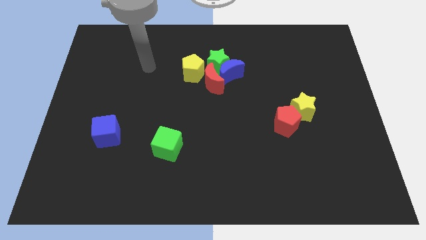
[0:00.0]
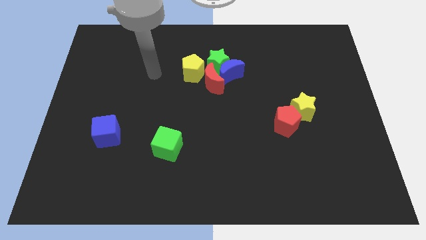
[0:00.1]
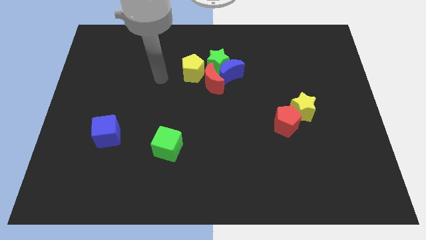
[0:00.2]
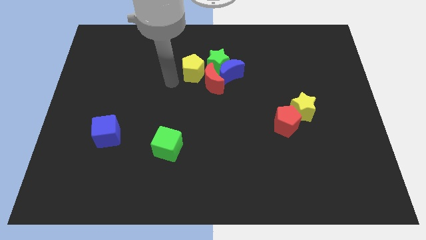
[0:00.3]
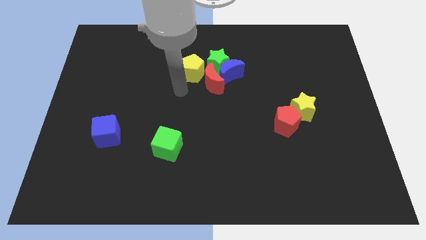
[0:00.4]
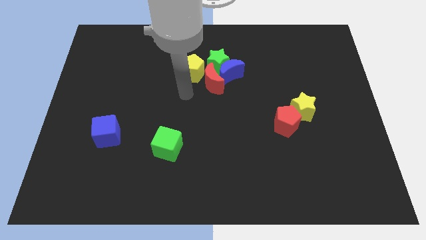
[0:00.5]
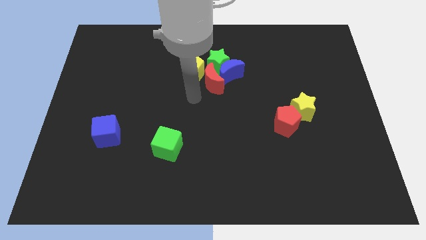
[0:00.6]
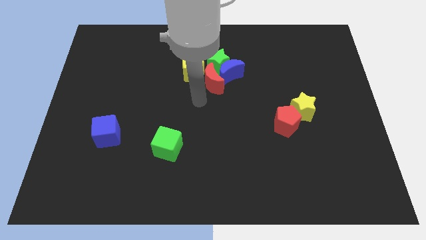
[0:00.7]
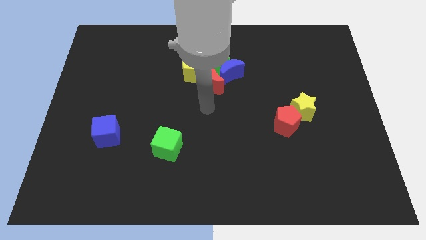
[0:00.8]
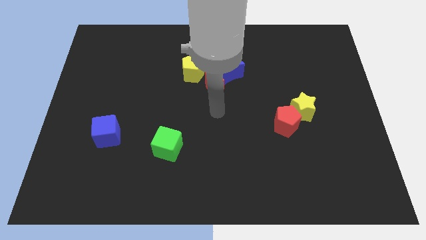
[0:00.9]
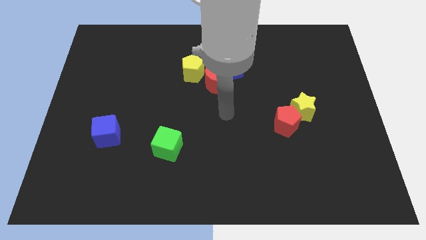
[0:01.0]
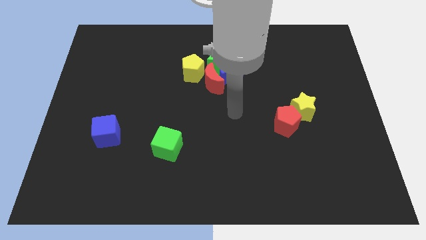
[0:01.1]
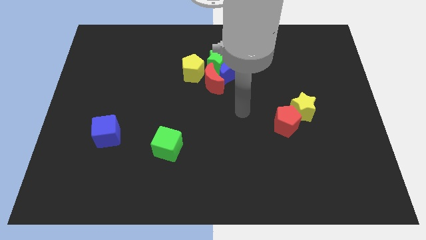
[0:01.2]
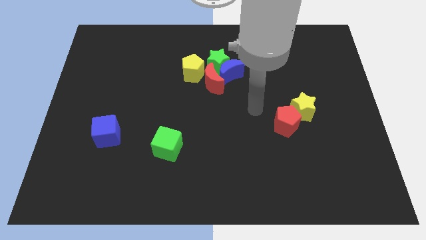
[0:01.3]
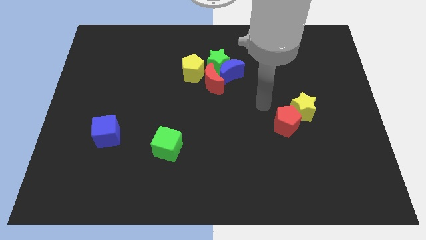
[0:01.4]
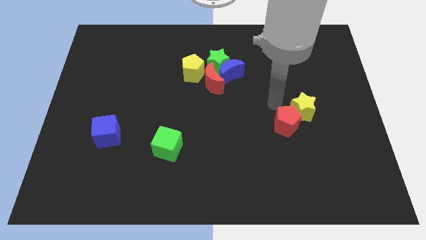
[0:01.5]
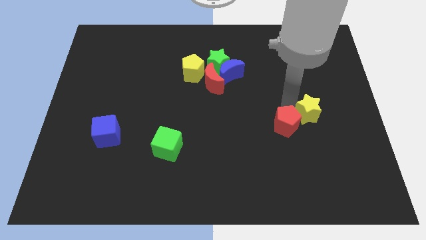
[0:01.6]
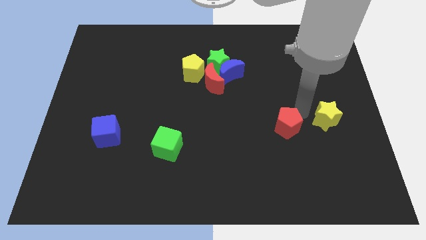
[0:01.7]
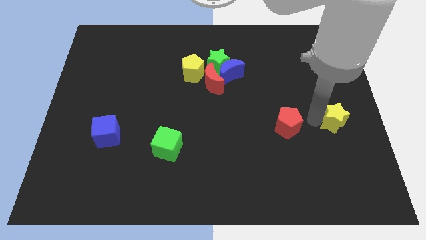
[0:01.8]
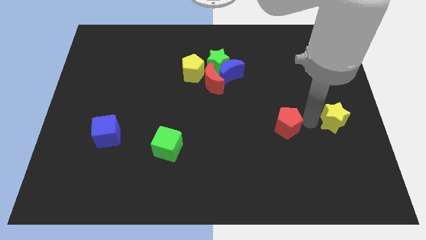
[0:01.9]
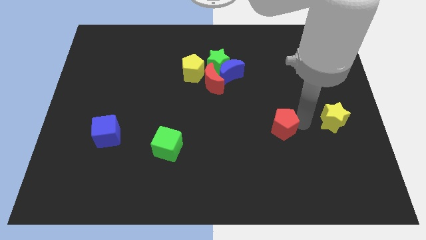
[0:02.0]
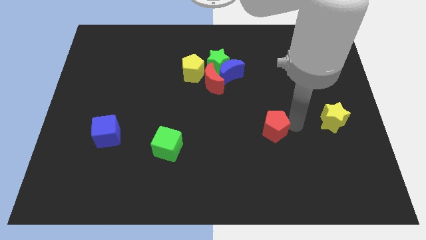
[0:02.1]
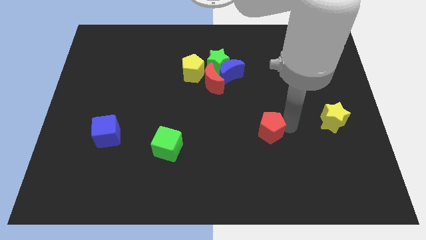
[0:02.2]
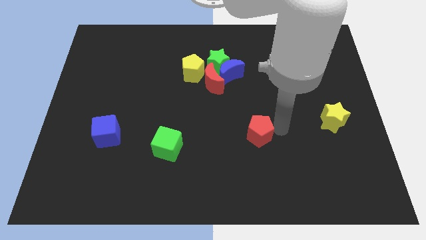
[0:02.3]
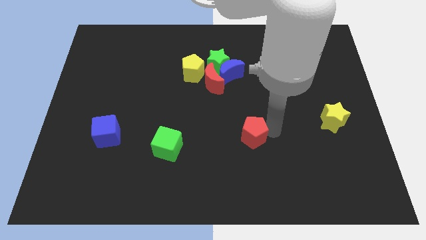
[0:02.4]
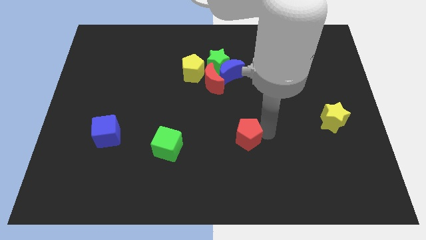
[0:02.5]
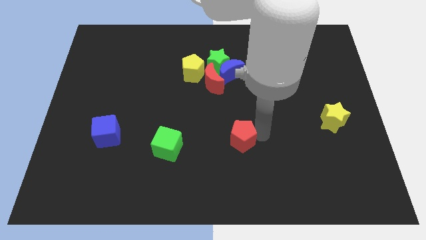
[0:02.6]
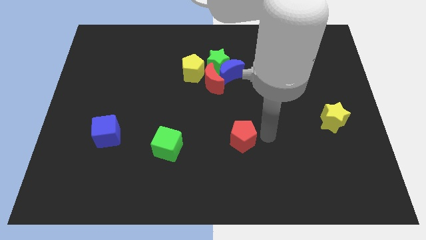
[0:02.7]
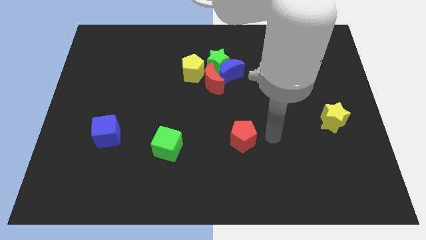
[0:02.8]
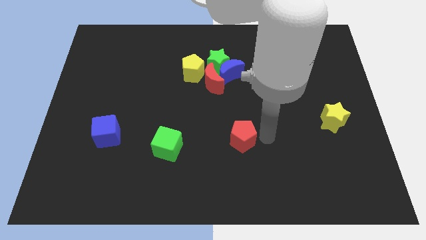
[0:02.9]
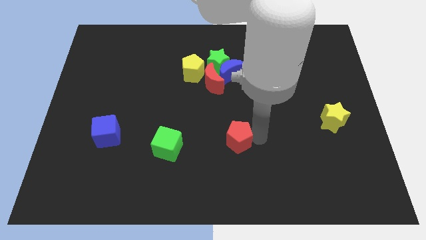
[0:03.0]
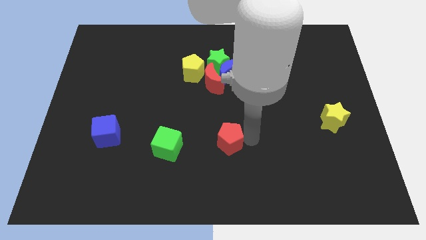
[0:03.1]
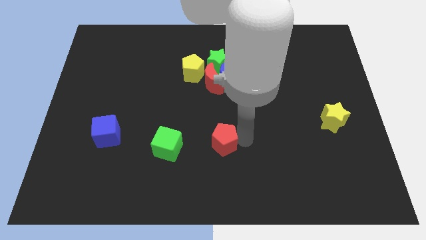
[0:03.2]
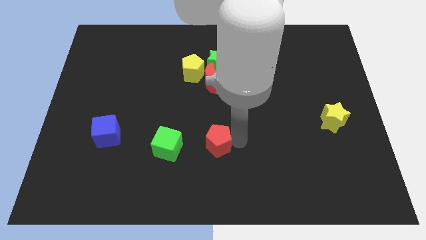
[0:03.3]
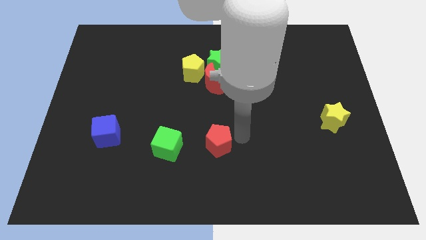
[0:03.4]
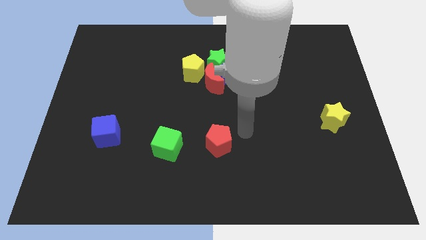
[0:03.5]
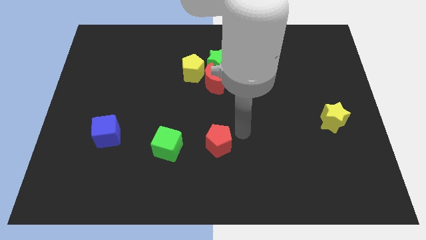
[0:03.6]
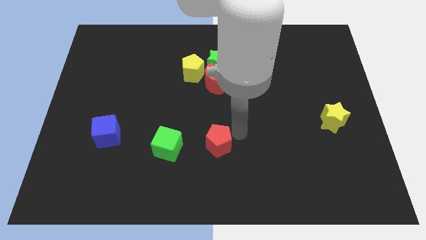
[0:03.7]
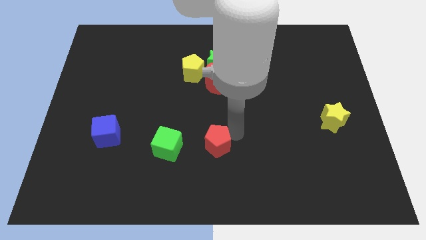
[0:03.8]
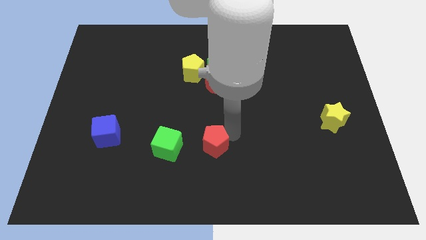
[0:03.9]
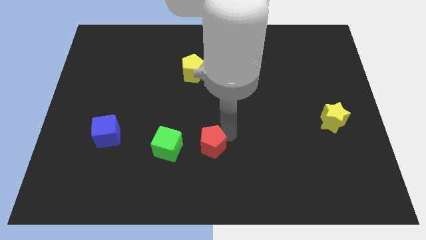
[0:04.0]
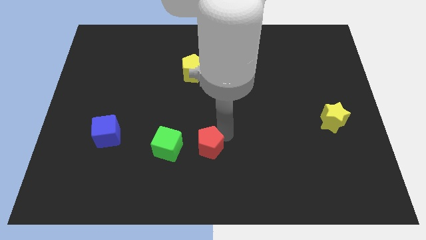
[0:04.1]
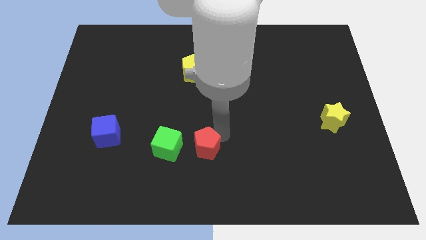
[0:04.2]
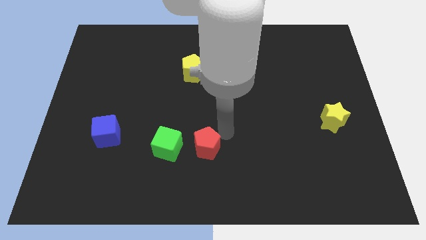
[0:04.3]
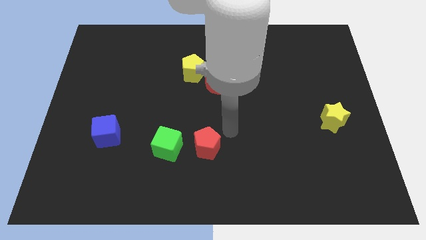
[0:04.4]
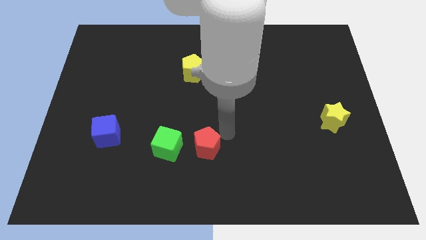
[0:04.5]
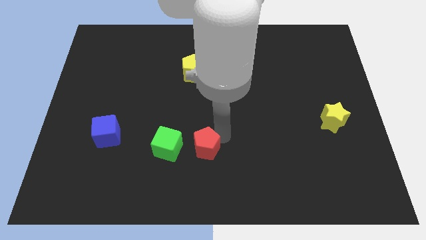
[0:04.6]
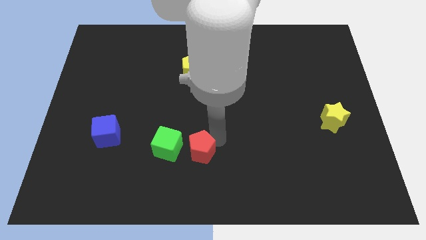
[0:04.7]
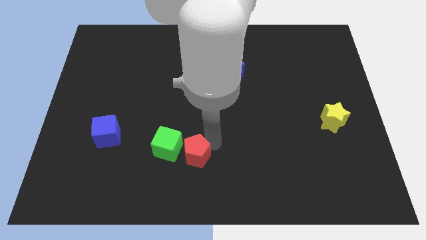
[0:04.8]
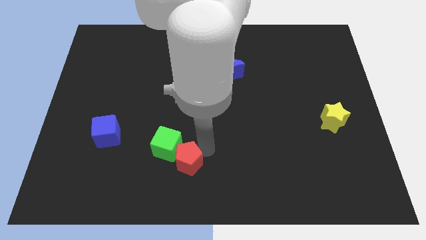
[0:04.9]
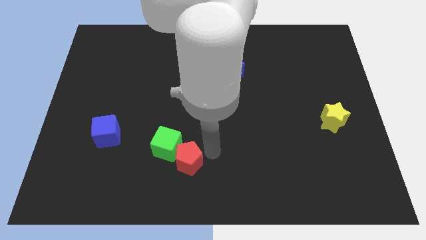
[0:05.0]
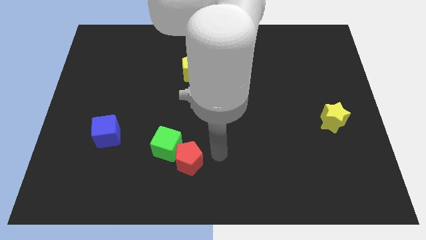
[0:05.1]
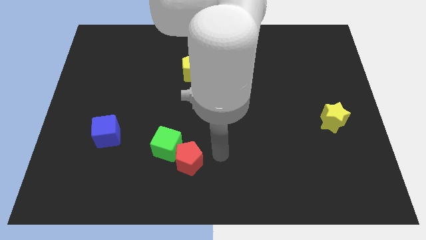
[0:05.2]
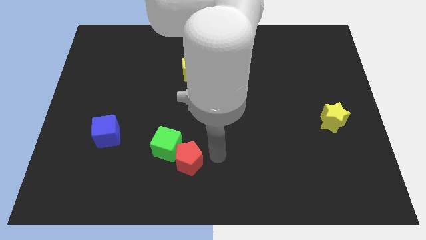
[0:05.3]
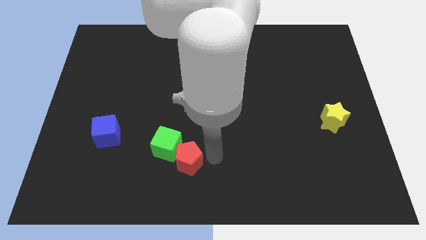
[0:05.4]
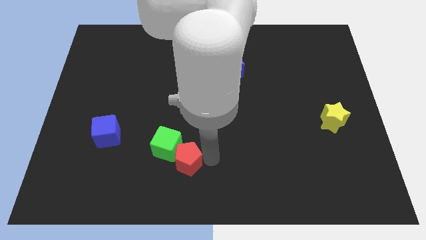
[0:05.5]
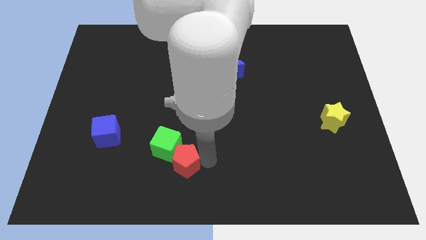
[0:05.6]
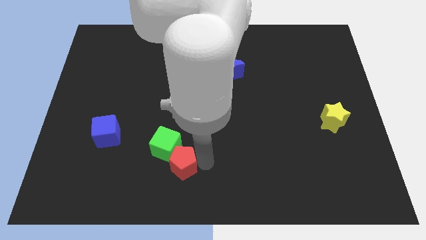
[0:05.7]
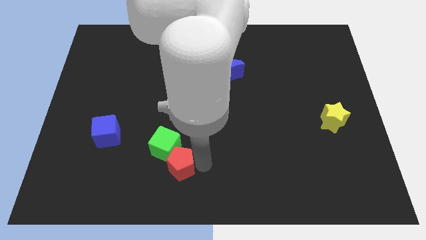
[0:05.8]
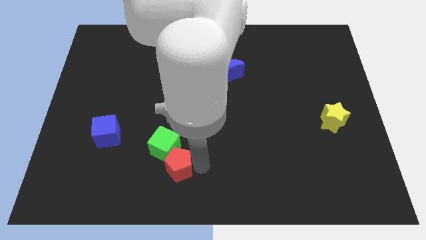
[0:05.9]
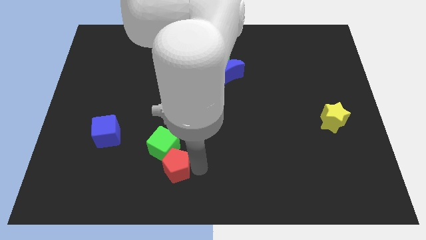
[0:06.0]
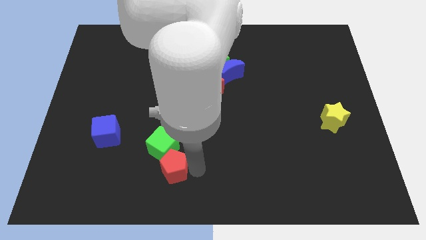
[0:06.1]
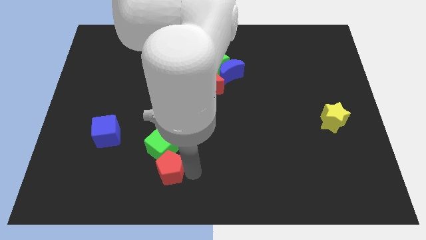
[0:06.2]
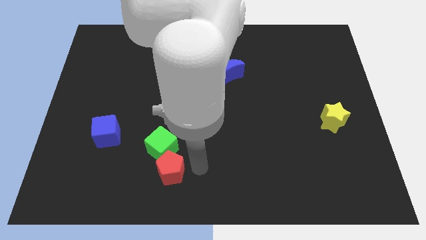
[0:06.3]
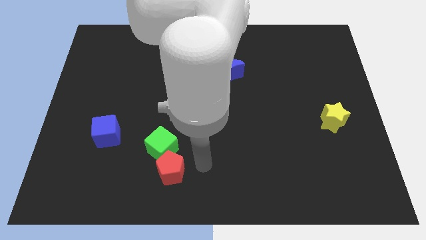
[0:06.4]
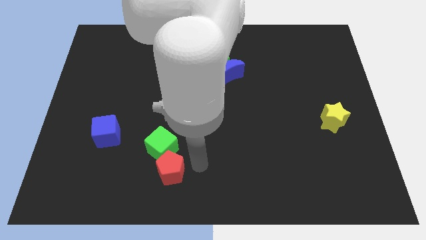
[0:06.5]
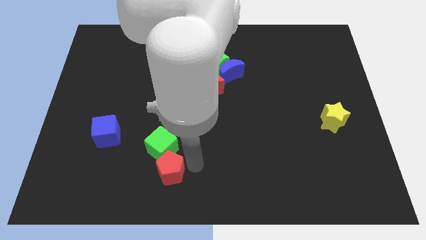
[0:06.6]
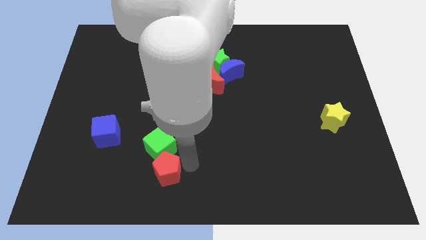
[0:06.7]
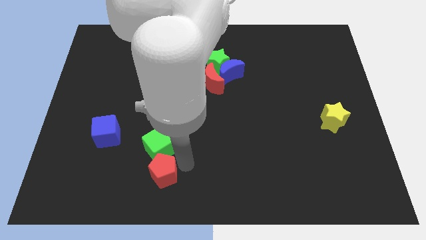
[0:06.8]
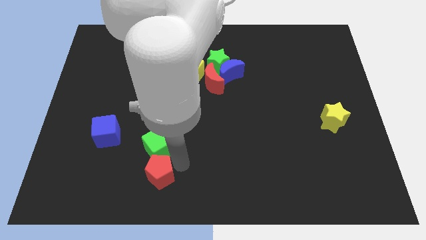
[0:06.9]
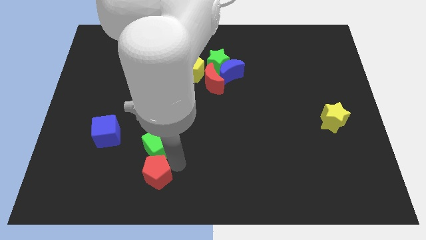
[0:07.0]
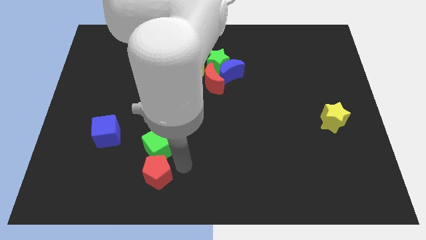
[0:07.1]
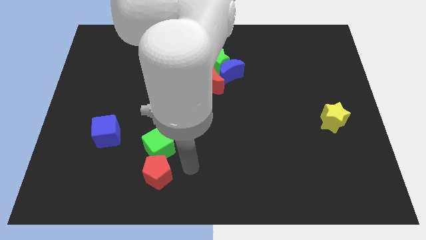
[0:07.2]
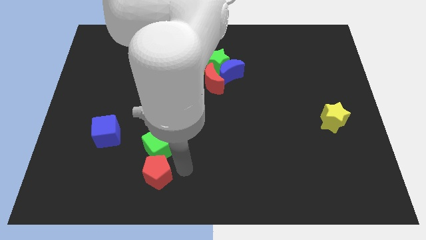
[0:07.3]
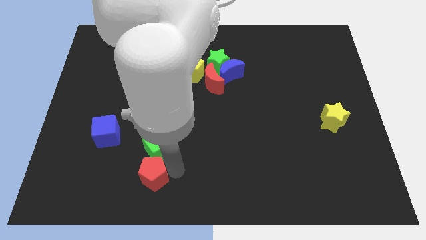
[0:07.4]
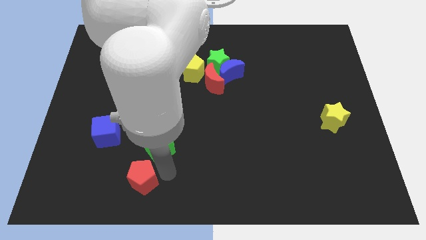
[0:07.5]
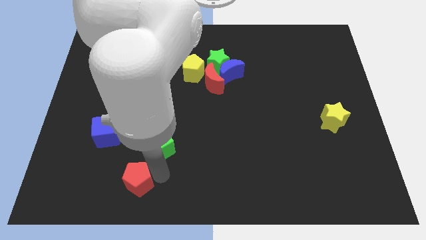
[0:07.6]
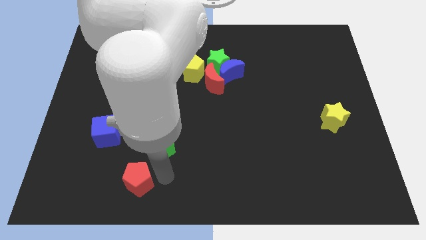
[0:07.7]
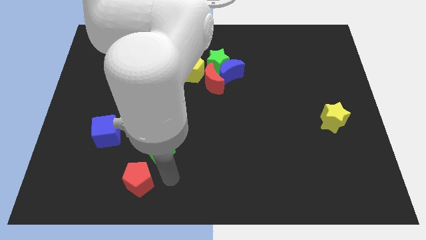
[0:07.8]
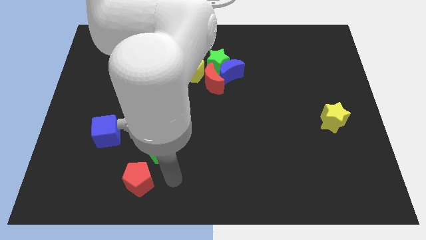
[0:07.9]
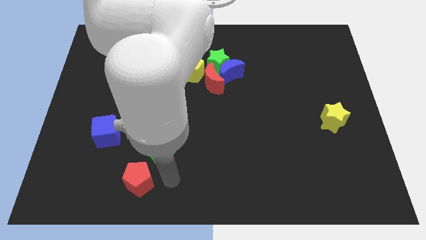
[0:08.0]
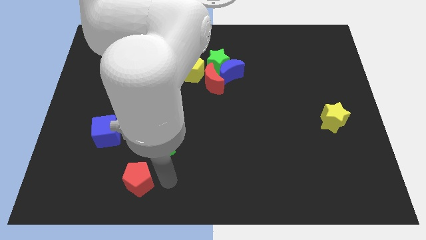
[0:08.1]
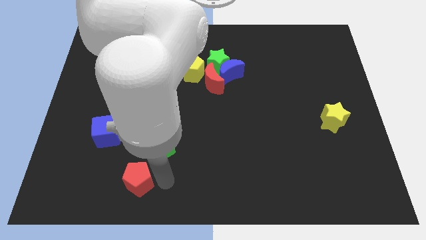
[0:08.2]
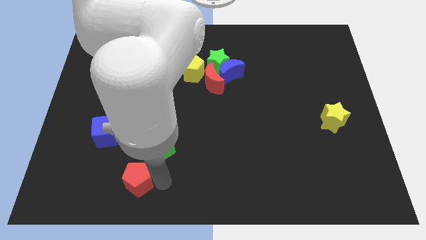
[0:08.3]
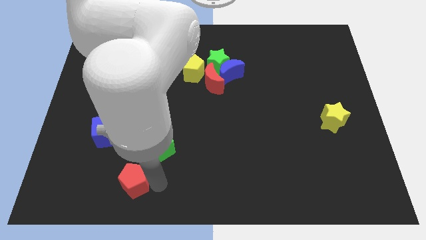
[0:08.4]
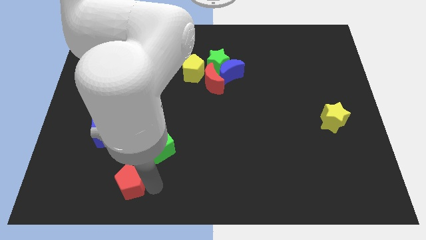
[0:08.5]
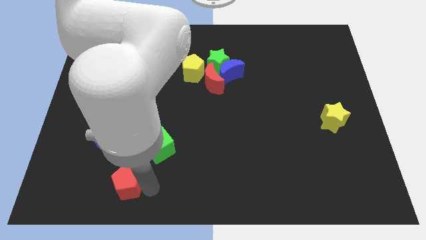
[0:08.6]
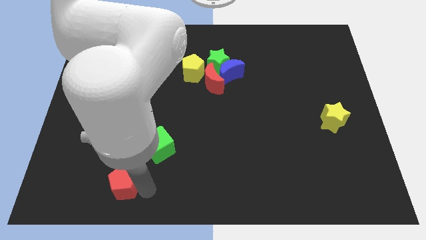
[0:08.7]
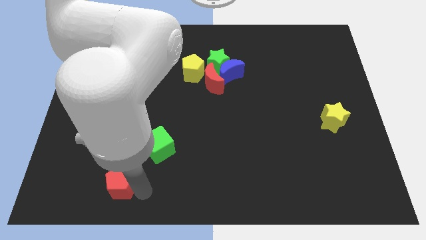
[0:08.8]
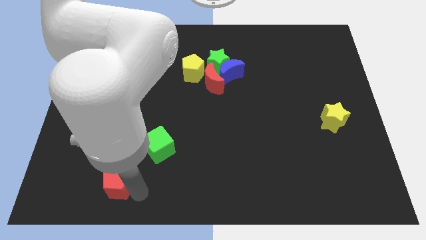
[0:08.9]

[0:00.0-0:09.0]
push the red pentagon below the blue cube
